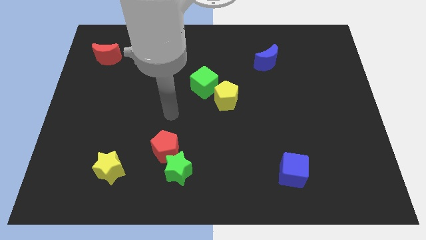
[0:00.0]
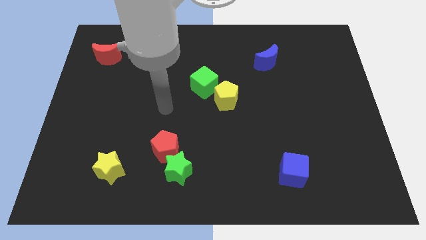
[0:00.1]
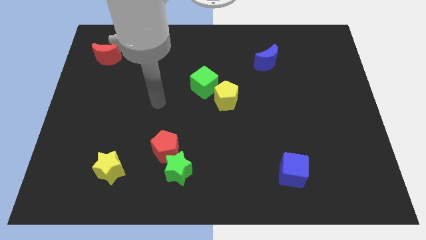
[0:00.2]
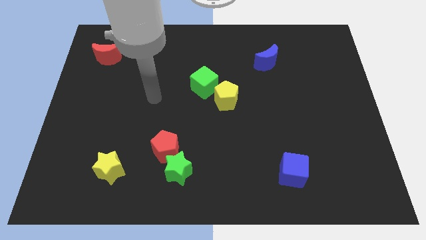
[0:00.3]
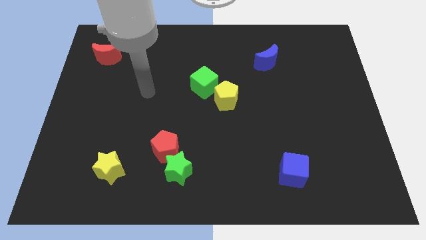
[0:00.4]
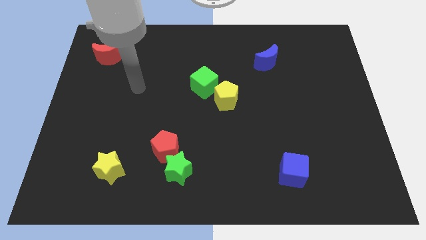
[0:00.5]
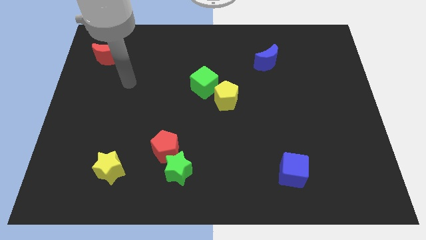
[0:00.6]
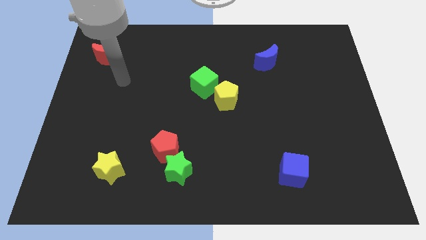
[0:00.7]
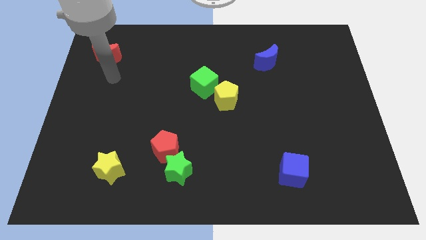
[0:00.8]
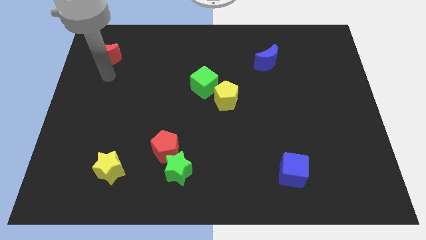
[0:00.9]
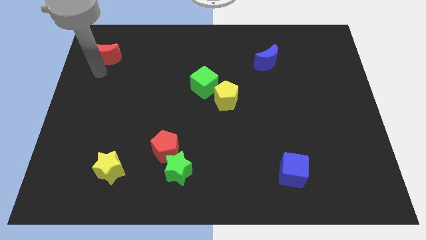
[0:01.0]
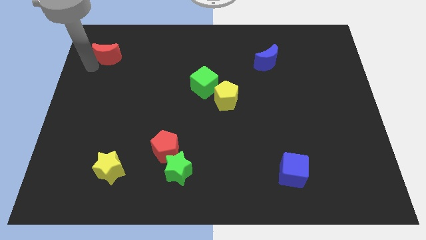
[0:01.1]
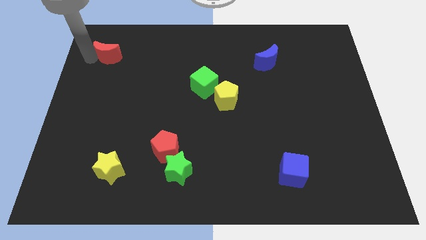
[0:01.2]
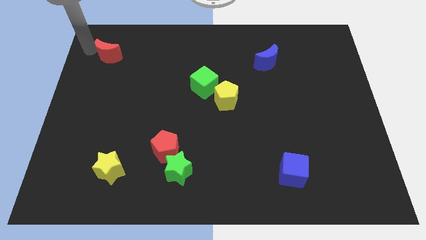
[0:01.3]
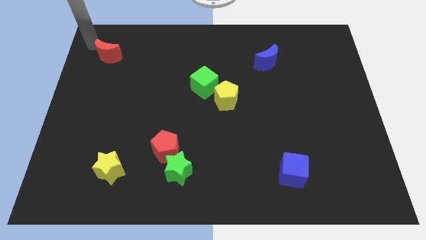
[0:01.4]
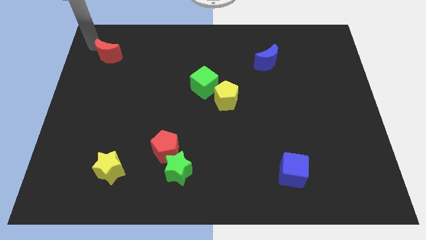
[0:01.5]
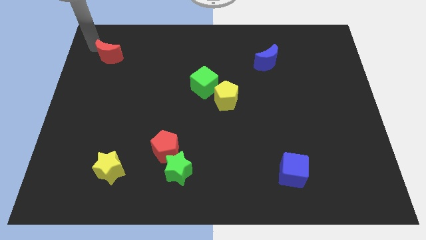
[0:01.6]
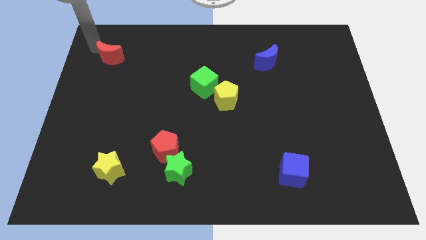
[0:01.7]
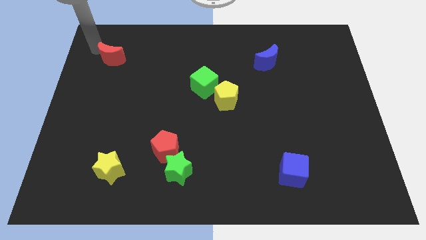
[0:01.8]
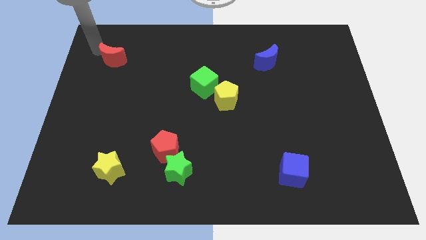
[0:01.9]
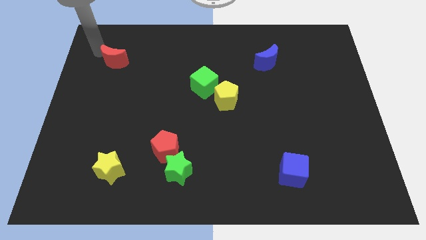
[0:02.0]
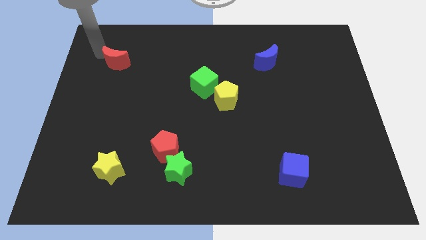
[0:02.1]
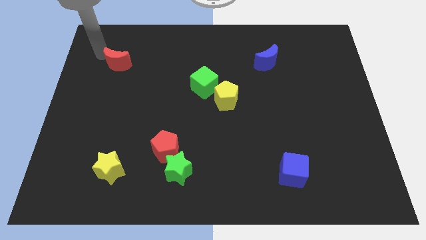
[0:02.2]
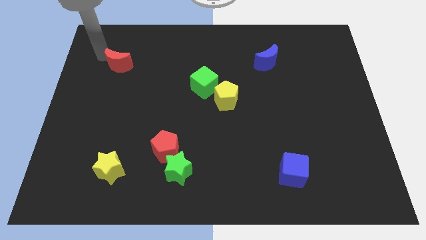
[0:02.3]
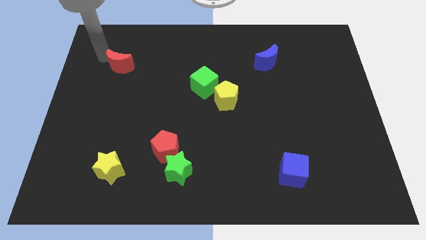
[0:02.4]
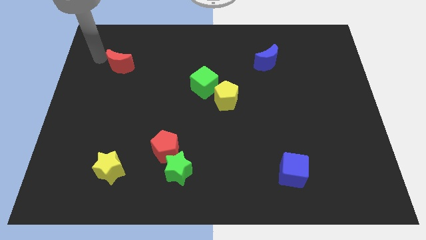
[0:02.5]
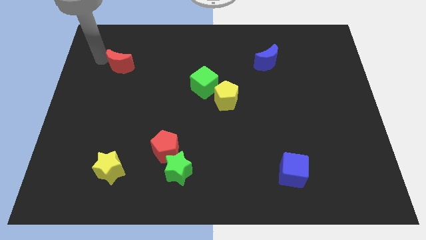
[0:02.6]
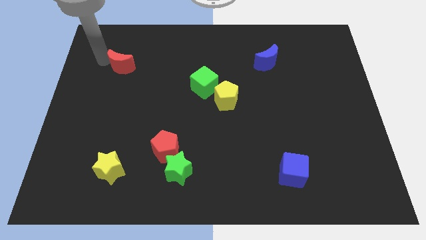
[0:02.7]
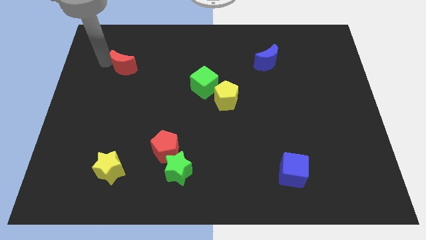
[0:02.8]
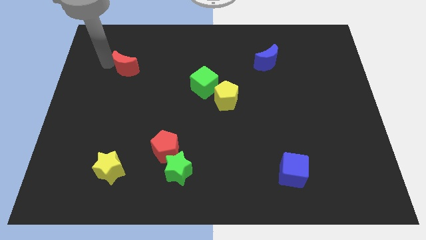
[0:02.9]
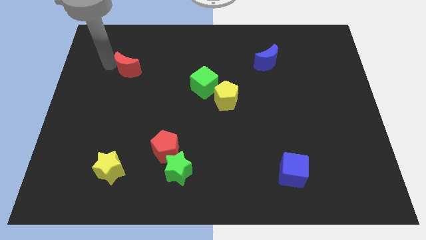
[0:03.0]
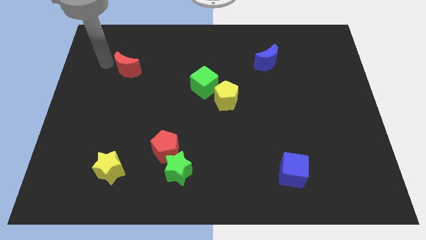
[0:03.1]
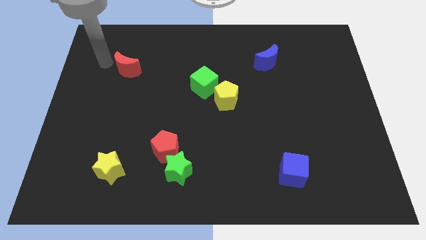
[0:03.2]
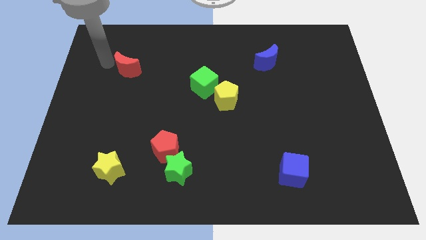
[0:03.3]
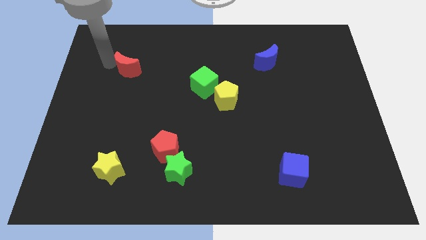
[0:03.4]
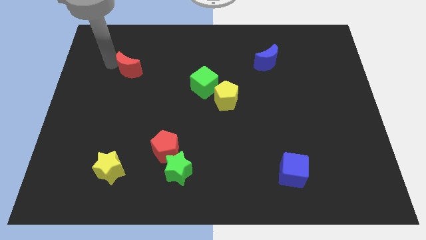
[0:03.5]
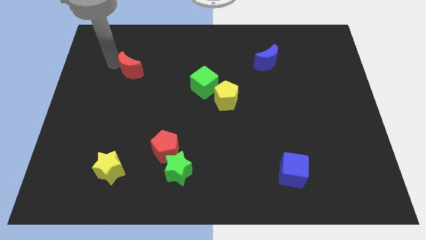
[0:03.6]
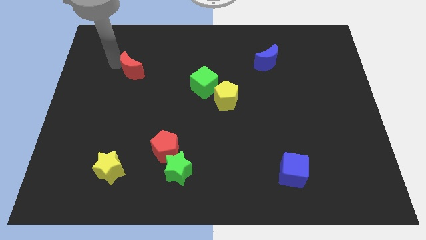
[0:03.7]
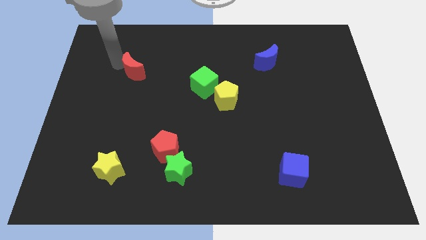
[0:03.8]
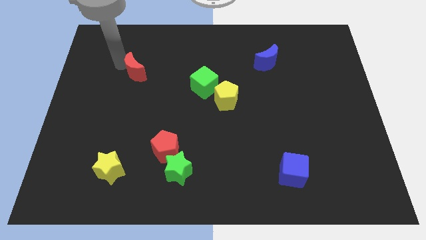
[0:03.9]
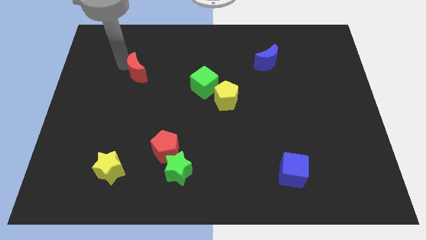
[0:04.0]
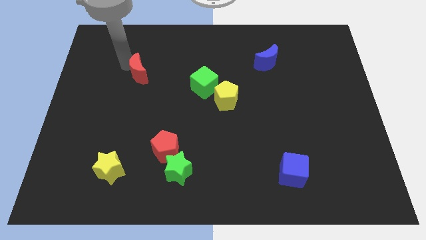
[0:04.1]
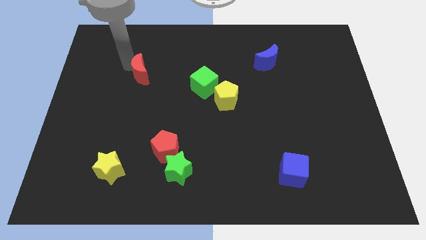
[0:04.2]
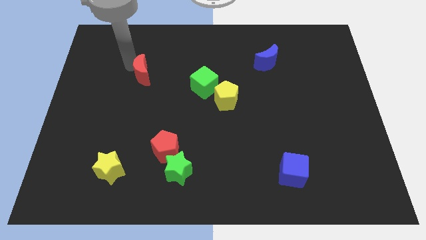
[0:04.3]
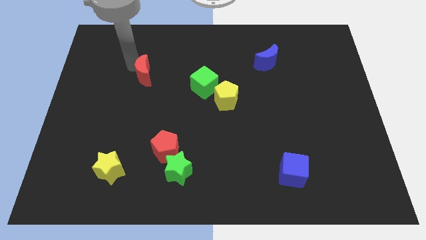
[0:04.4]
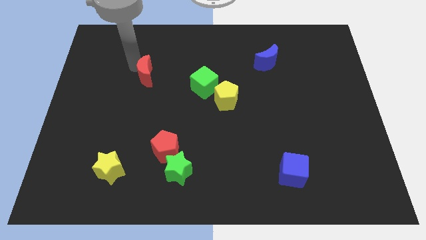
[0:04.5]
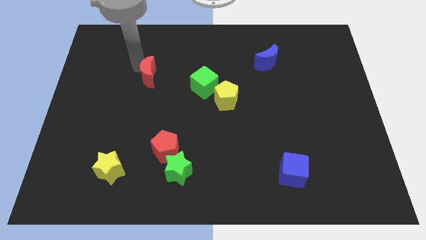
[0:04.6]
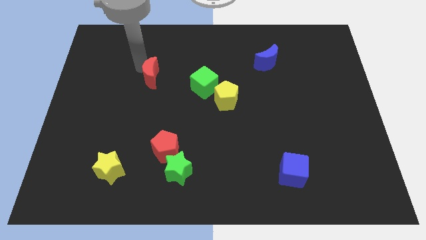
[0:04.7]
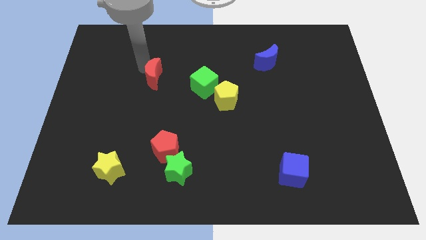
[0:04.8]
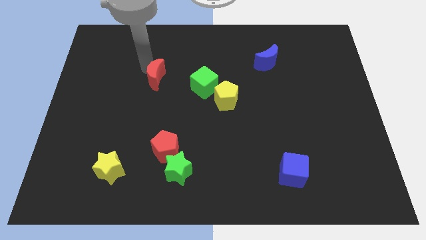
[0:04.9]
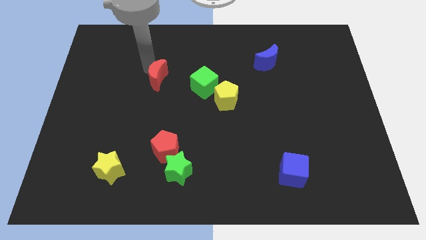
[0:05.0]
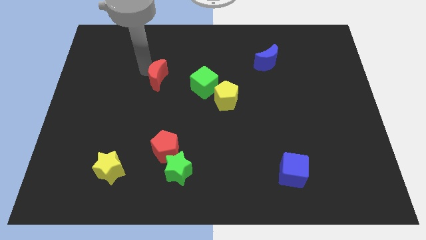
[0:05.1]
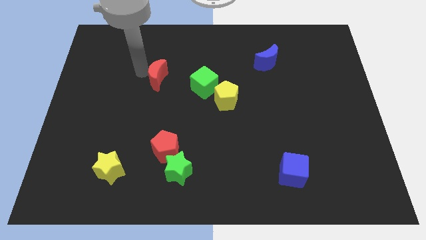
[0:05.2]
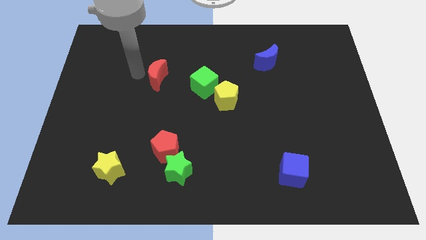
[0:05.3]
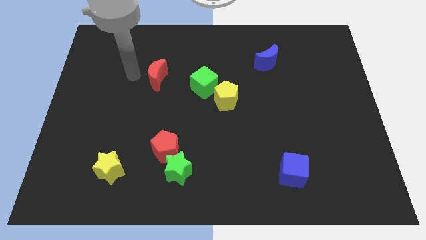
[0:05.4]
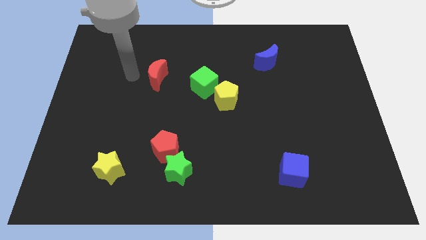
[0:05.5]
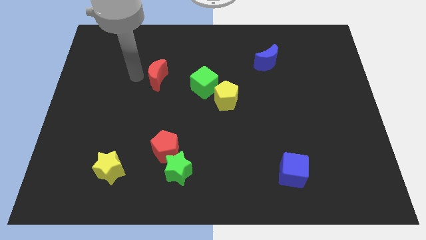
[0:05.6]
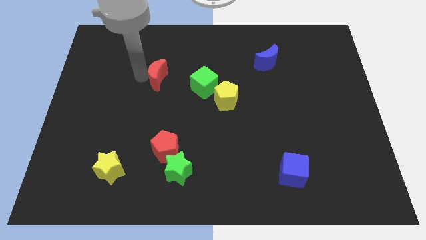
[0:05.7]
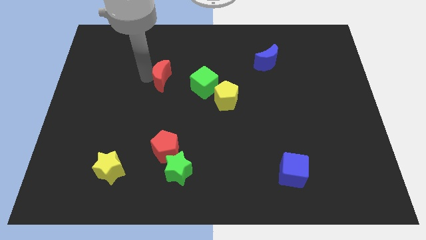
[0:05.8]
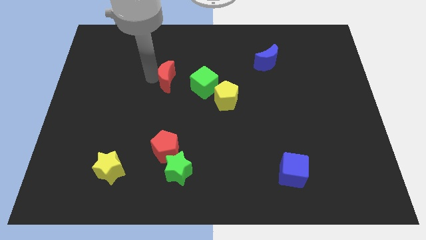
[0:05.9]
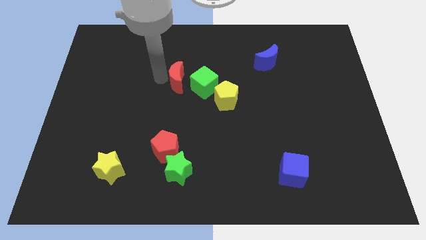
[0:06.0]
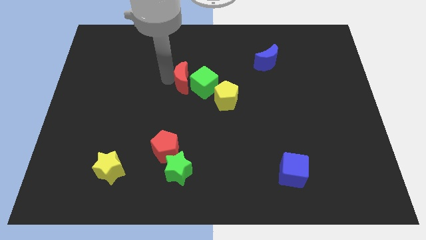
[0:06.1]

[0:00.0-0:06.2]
move the red moon to the green cube
